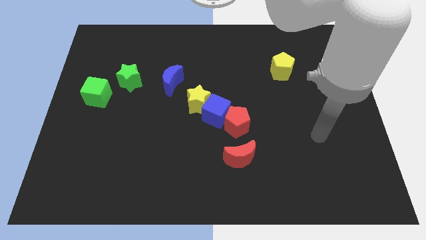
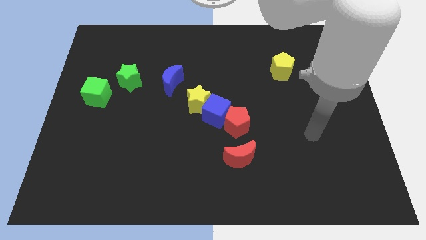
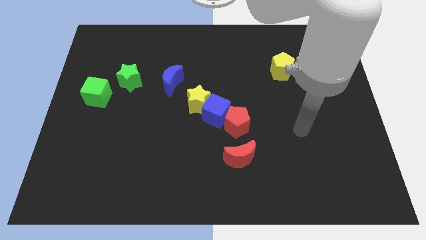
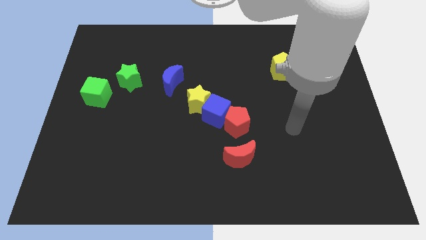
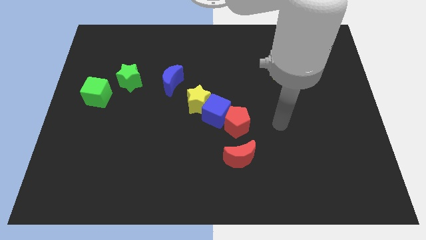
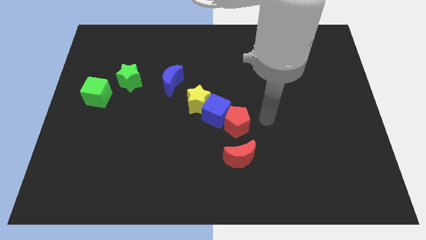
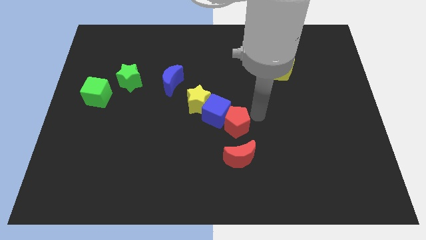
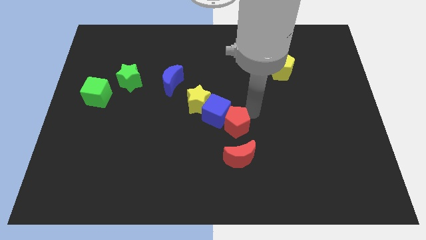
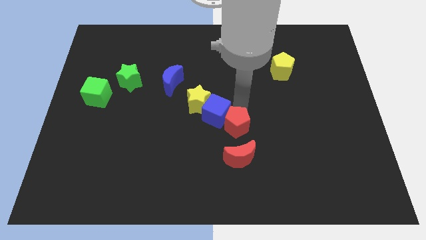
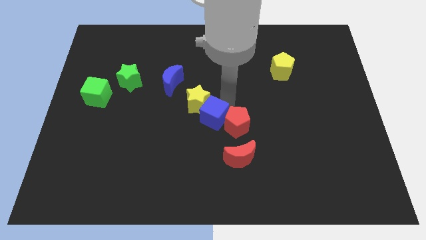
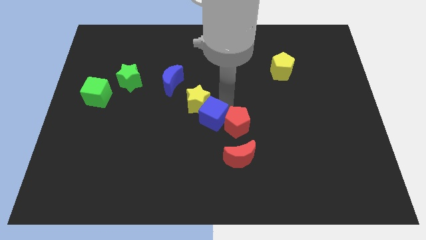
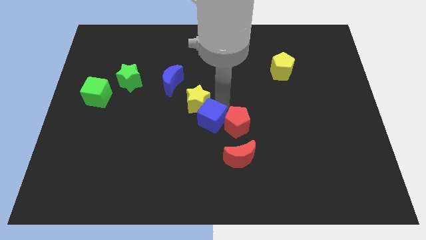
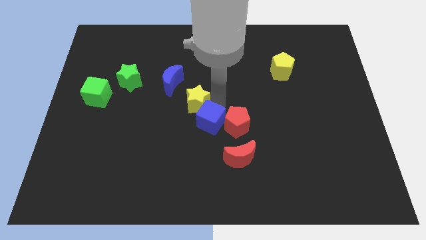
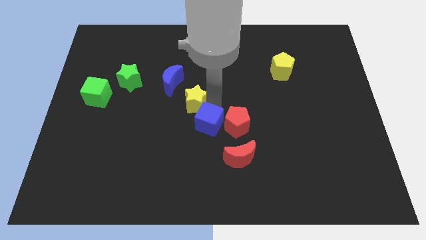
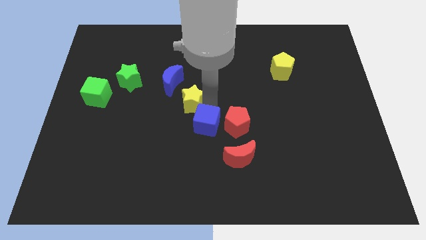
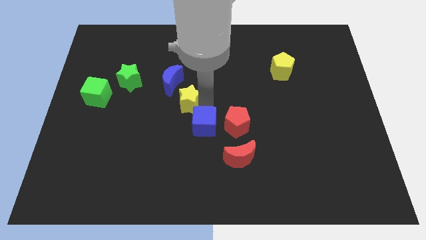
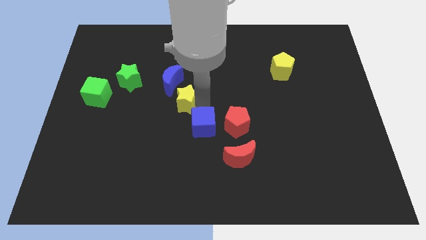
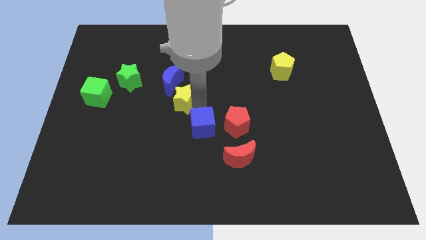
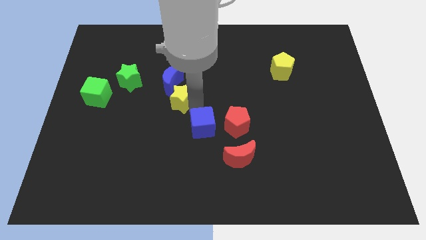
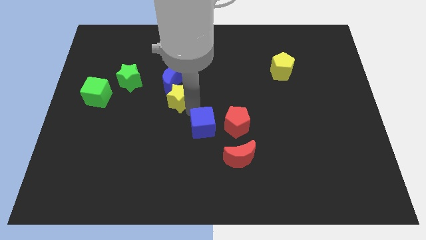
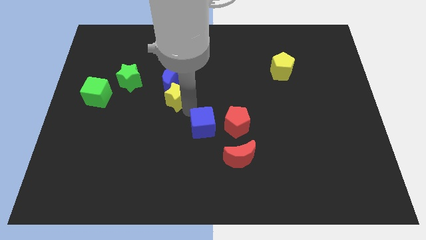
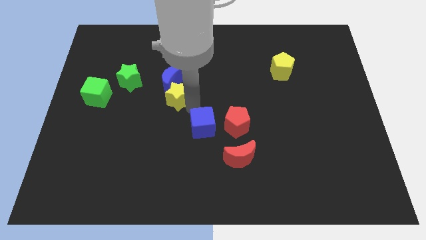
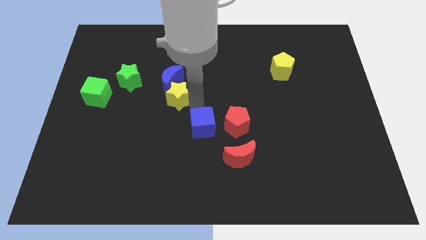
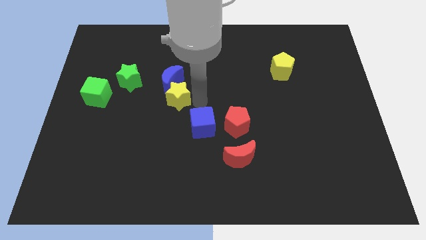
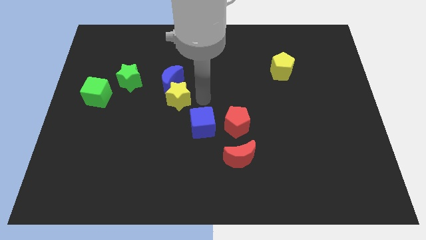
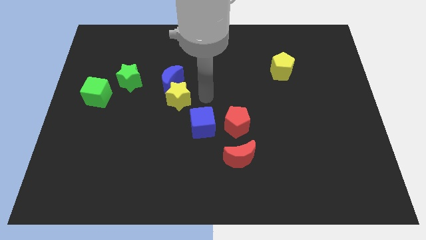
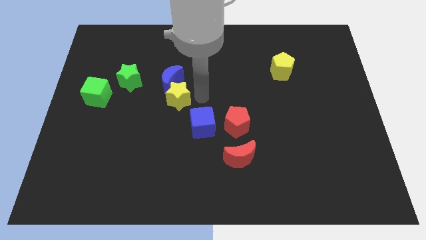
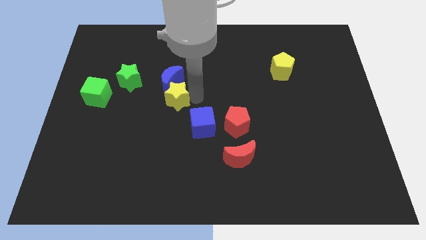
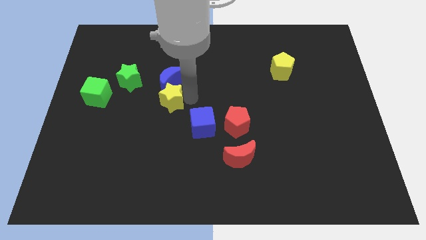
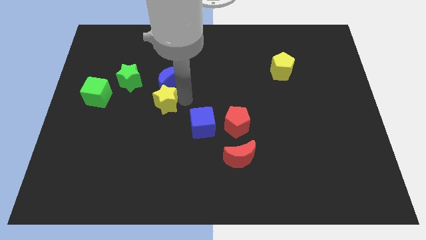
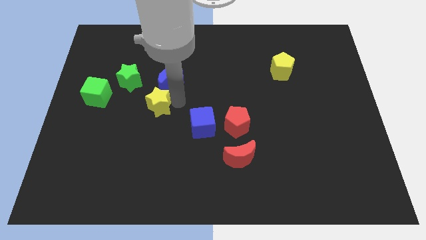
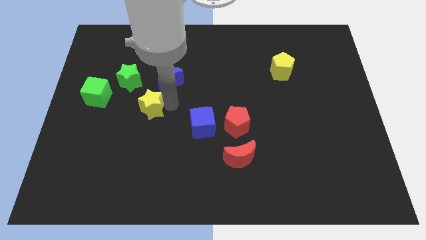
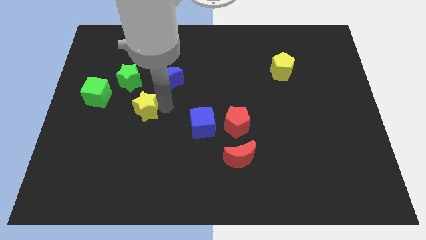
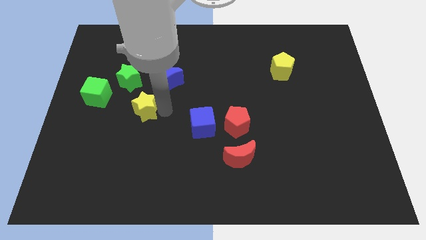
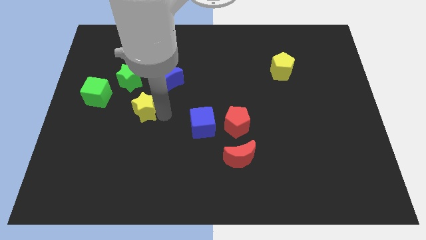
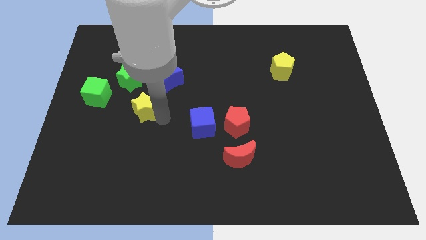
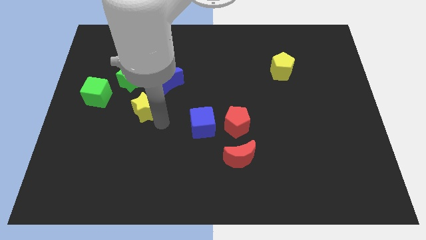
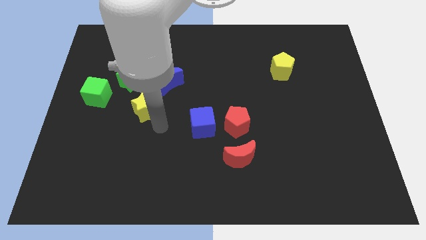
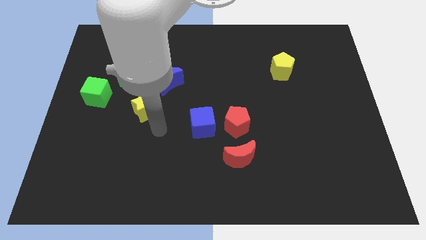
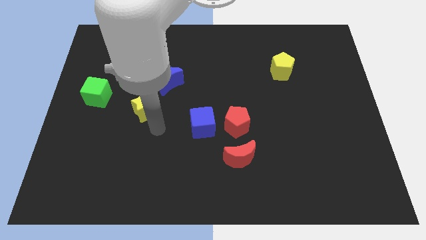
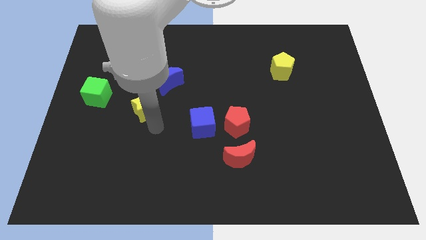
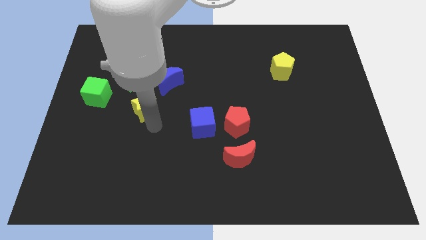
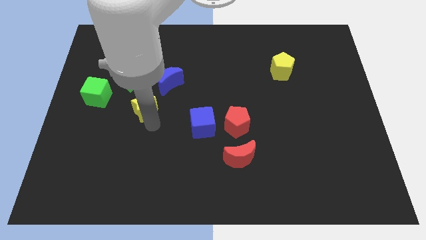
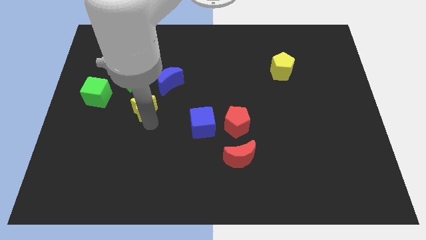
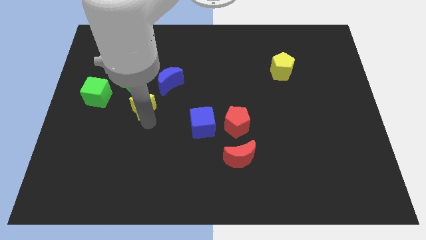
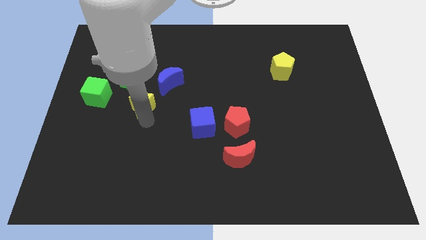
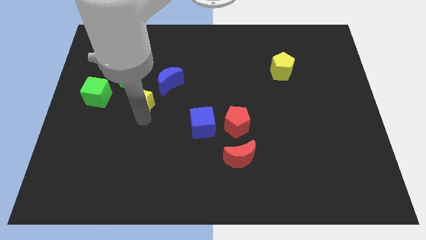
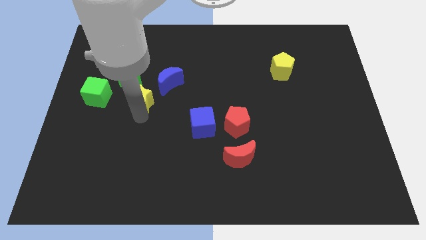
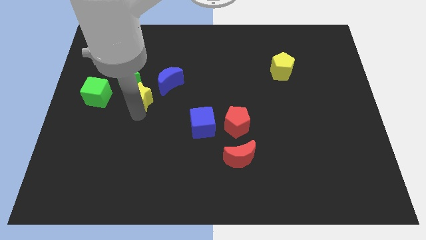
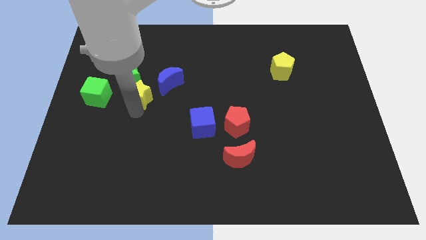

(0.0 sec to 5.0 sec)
slide the yellow star just left of the blue moon

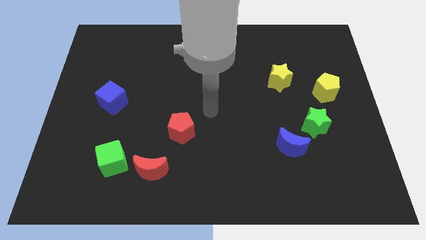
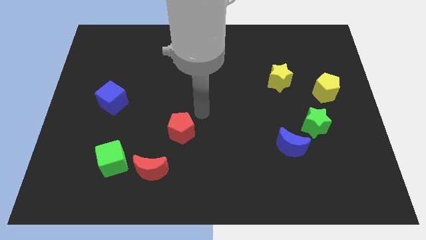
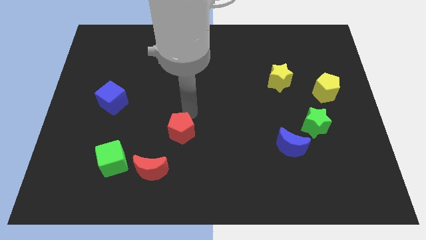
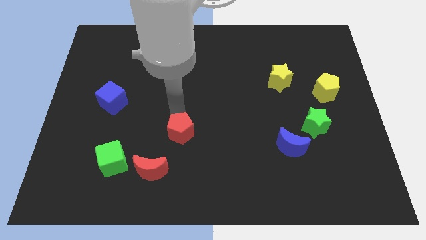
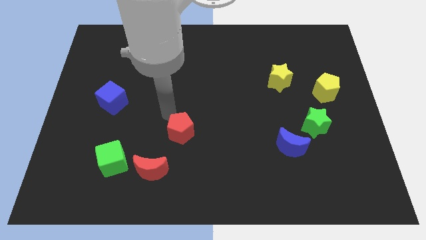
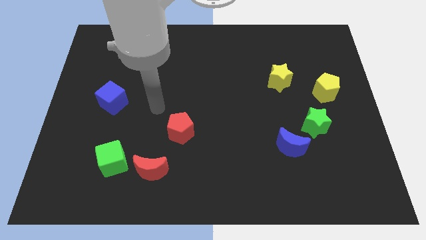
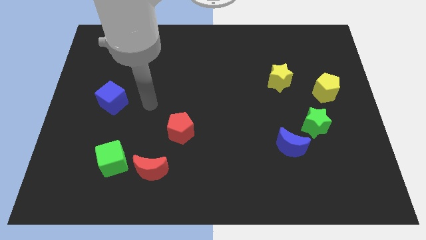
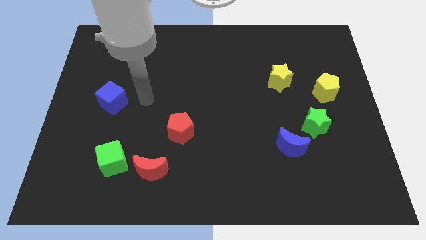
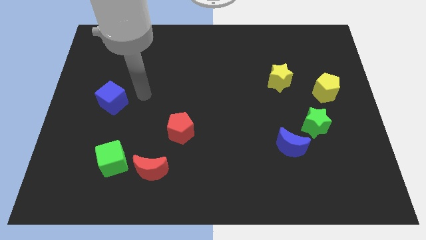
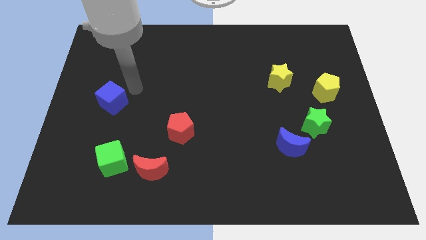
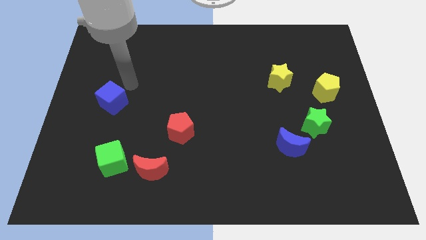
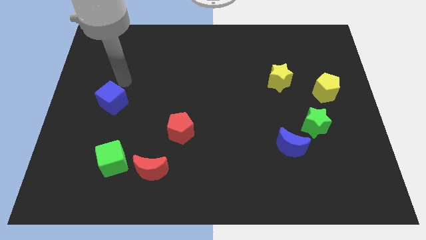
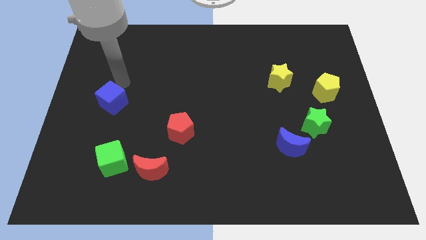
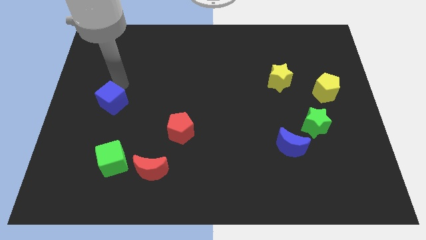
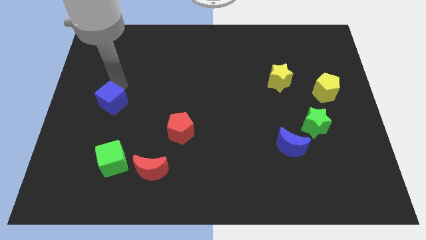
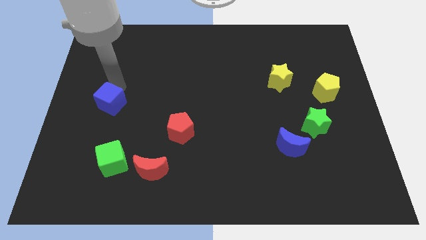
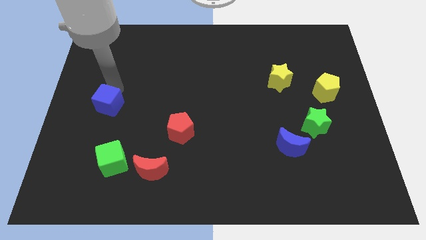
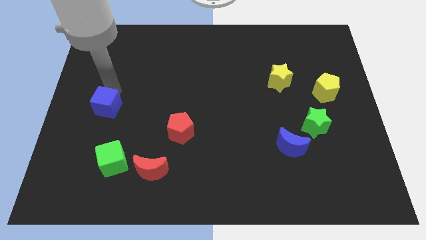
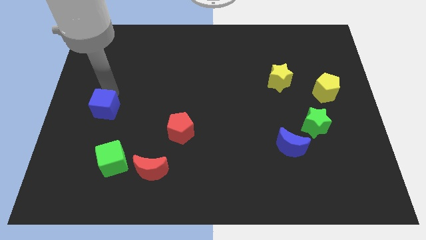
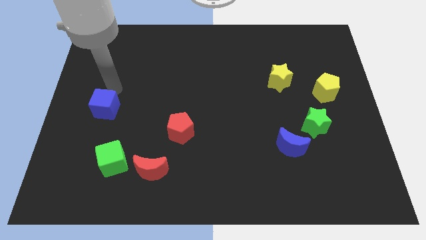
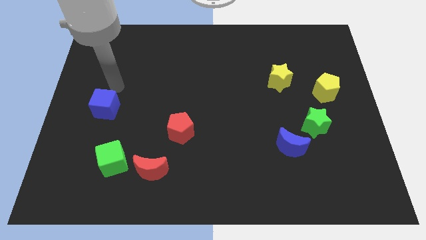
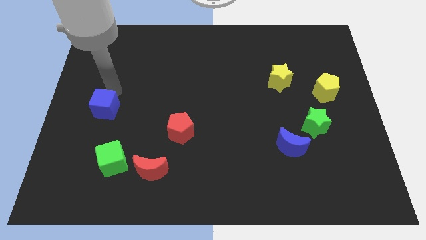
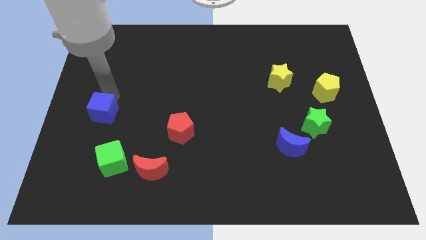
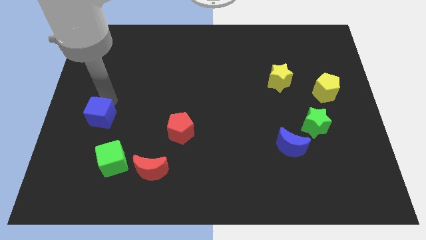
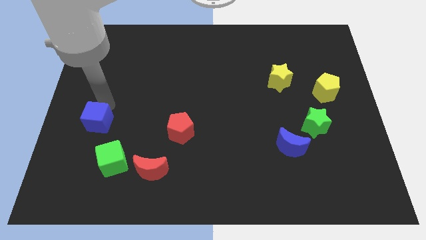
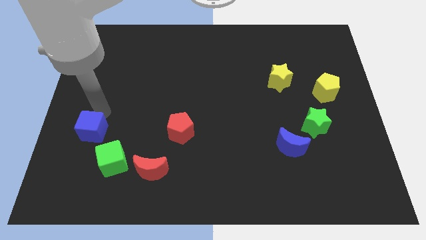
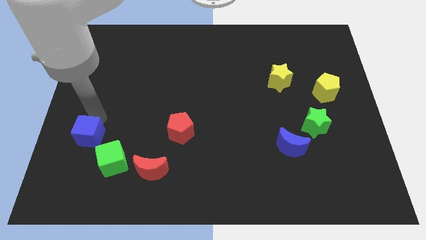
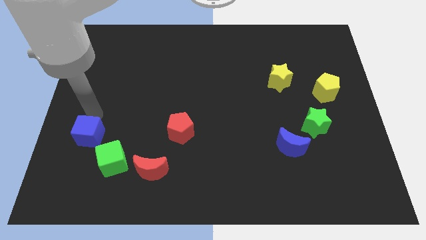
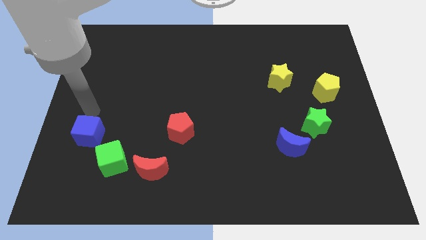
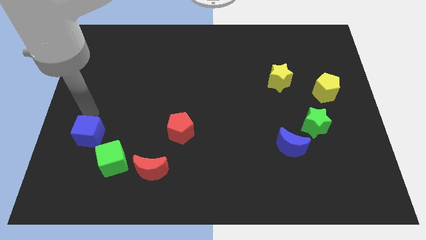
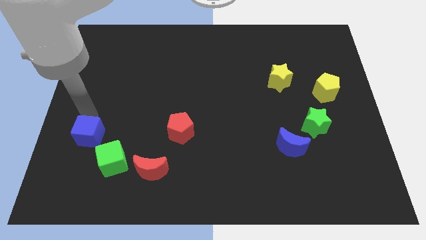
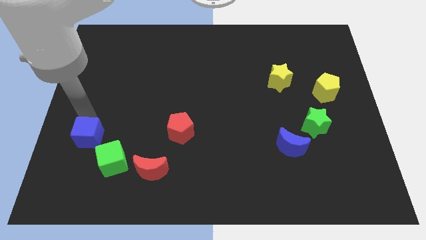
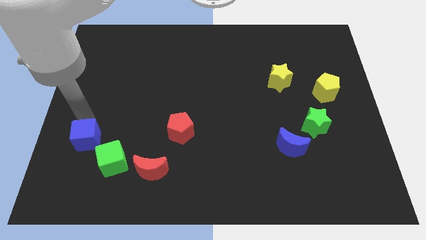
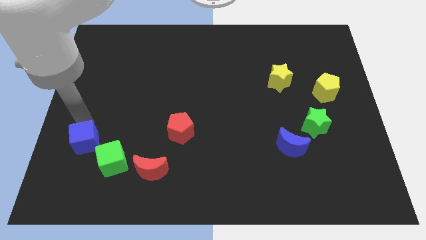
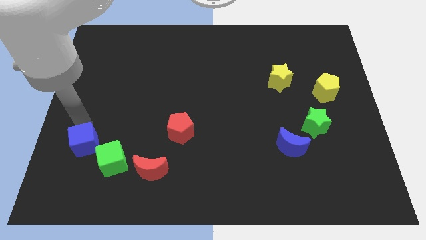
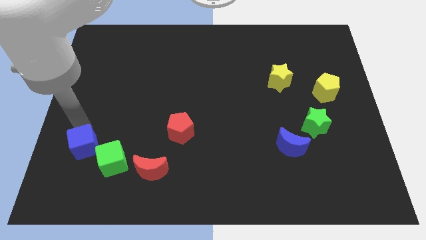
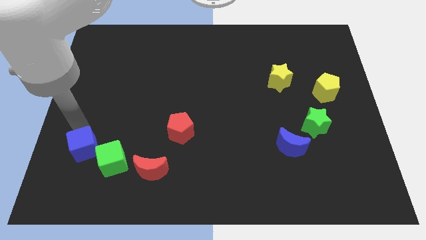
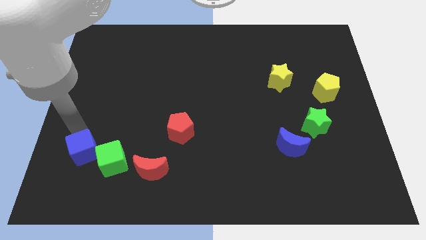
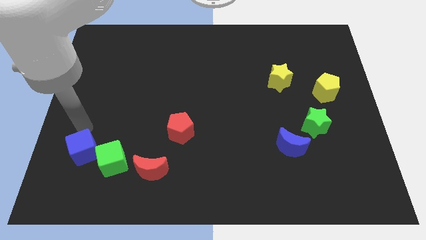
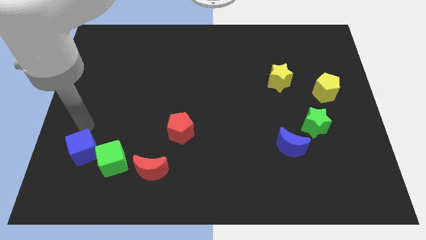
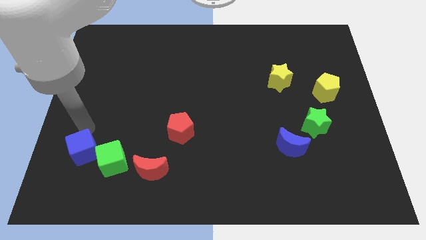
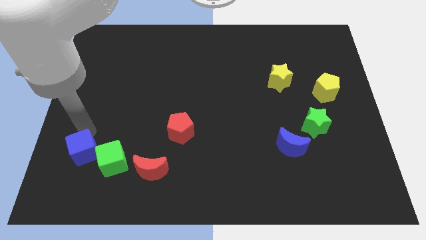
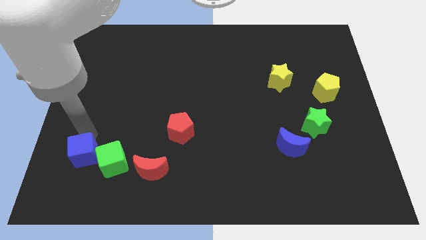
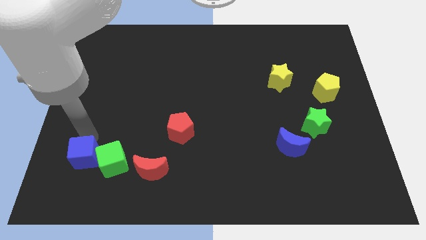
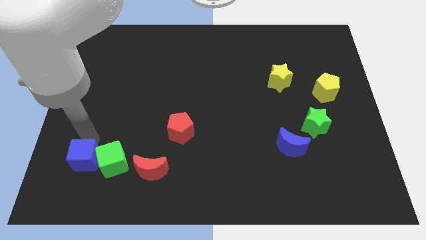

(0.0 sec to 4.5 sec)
move the blue cube diagonally down and to the left of the green cube
